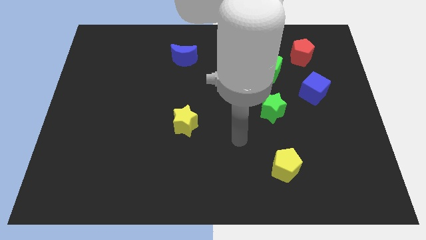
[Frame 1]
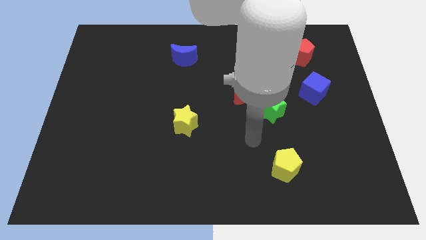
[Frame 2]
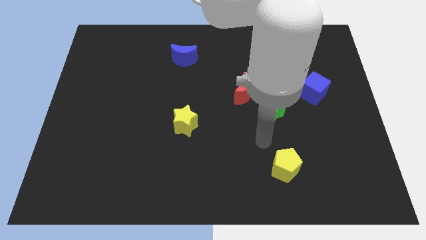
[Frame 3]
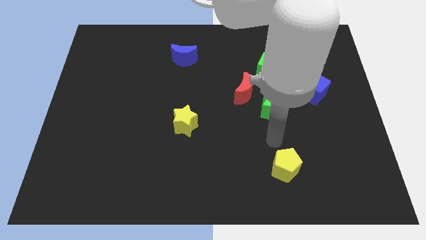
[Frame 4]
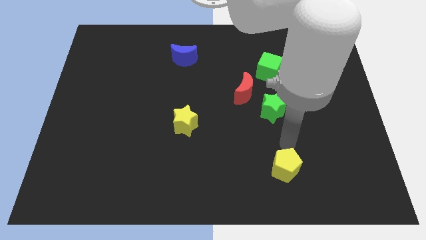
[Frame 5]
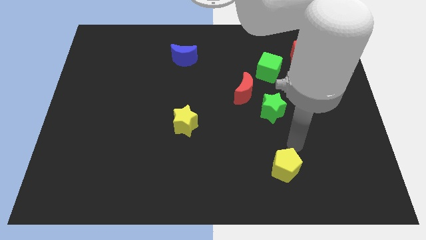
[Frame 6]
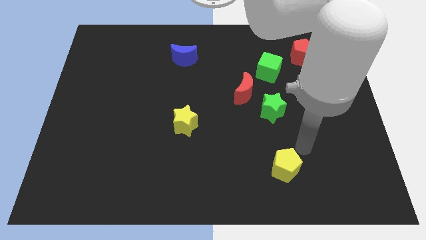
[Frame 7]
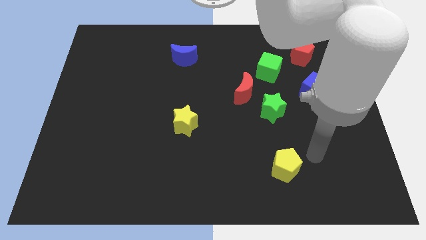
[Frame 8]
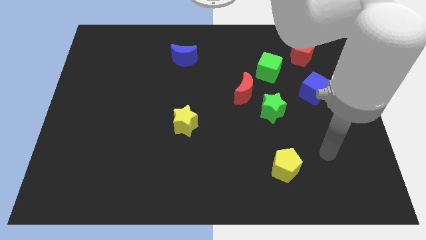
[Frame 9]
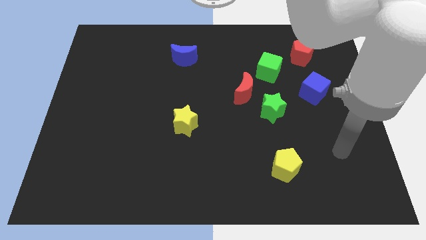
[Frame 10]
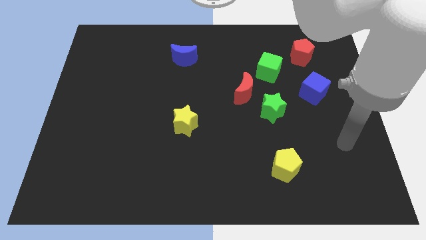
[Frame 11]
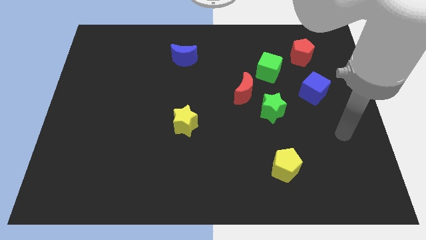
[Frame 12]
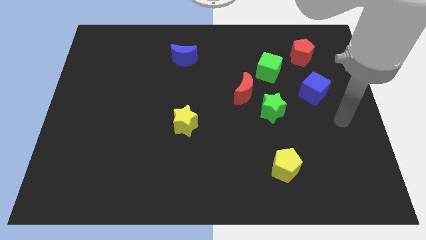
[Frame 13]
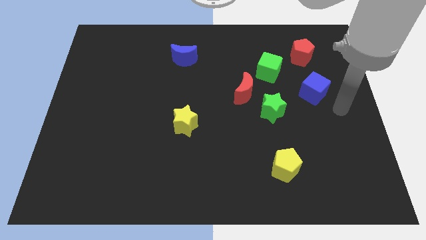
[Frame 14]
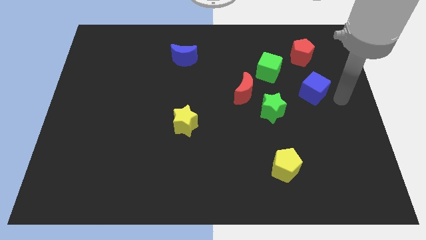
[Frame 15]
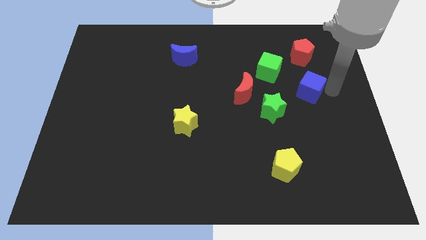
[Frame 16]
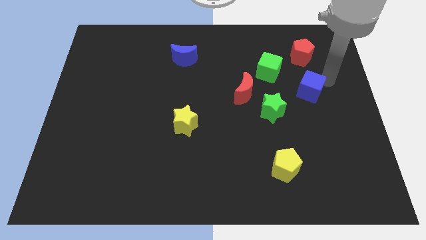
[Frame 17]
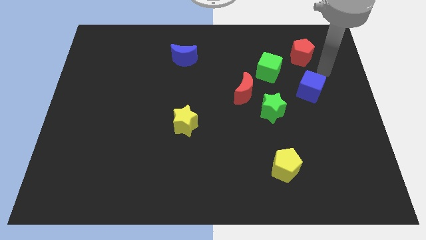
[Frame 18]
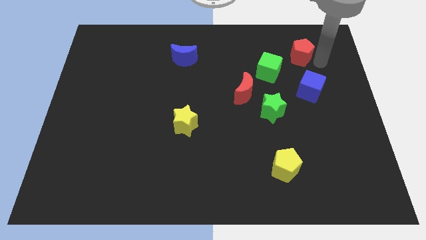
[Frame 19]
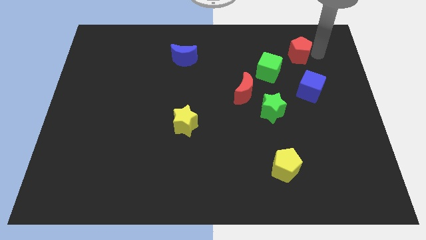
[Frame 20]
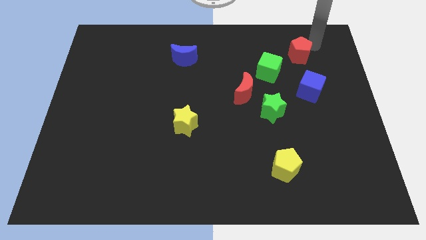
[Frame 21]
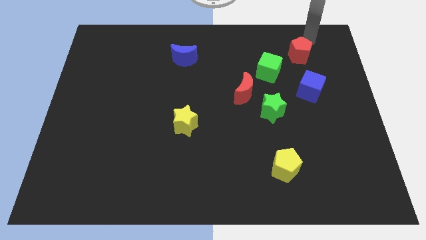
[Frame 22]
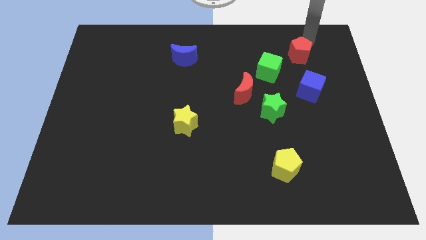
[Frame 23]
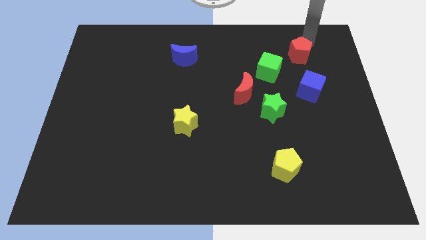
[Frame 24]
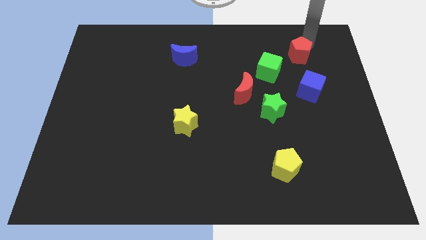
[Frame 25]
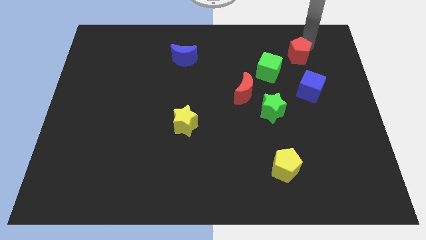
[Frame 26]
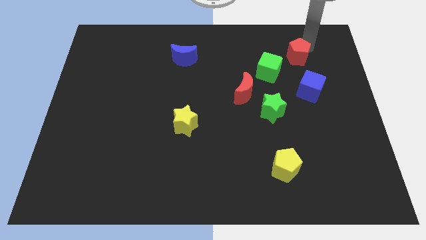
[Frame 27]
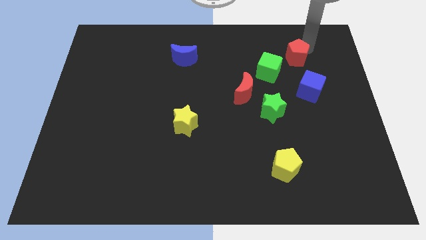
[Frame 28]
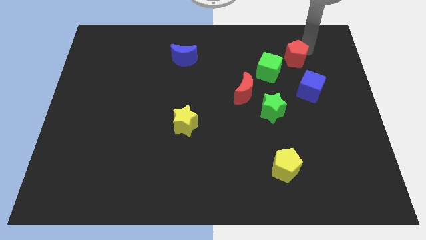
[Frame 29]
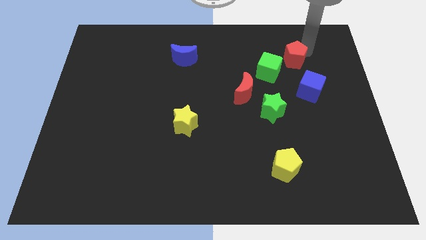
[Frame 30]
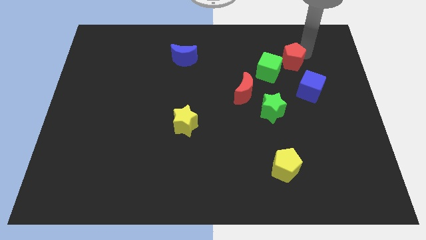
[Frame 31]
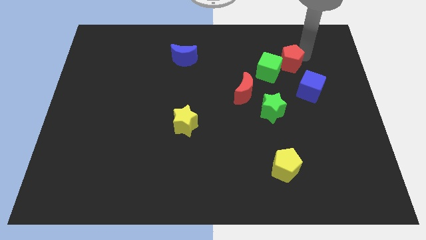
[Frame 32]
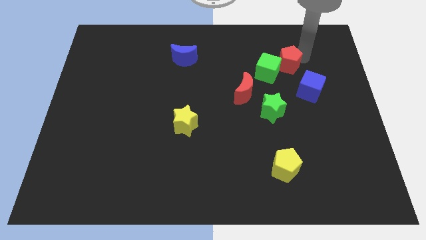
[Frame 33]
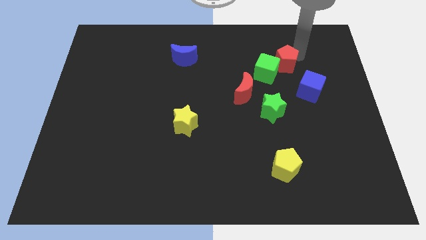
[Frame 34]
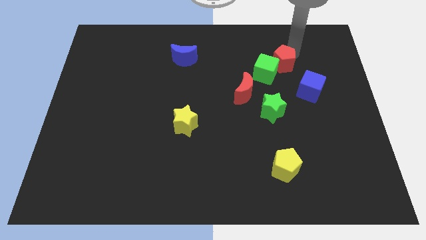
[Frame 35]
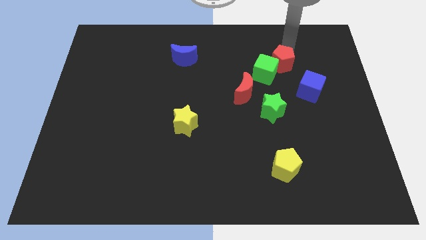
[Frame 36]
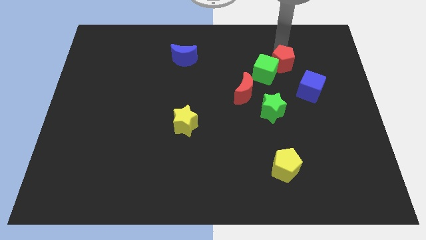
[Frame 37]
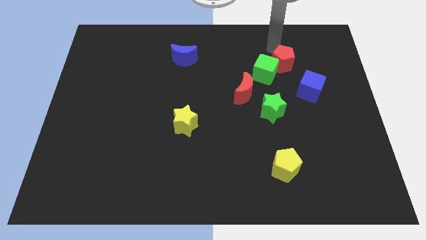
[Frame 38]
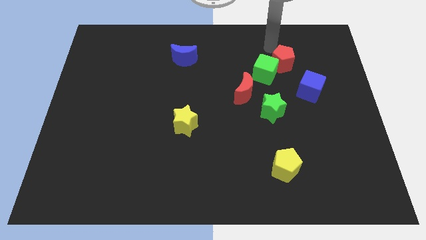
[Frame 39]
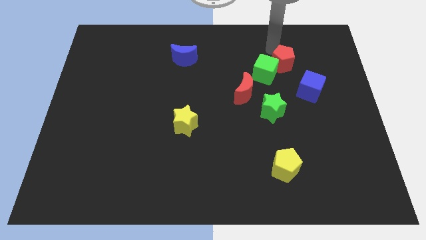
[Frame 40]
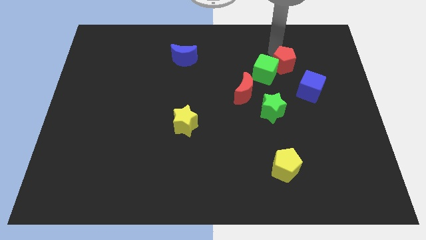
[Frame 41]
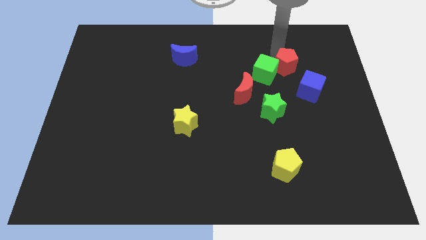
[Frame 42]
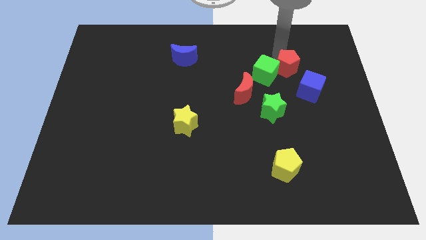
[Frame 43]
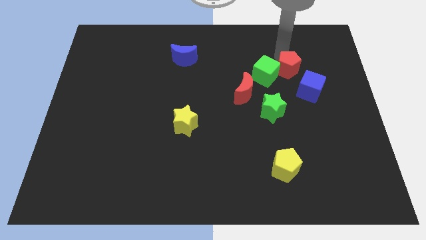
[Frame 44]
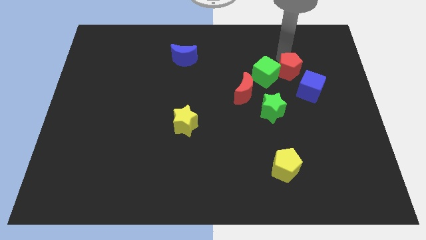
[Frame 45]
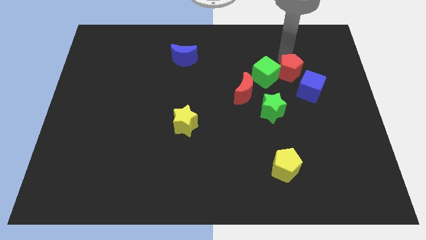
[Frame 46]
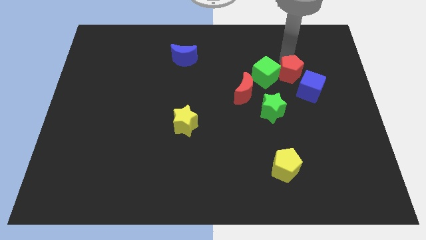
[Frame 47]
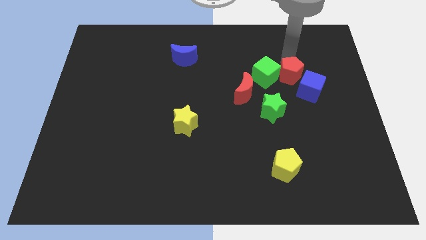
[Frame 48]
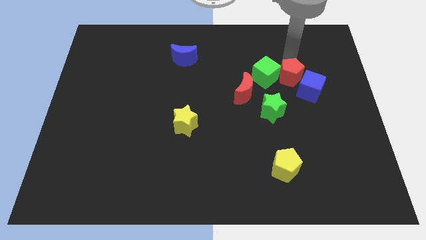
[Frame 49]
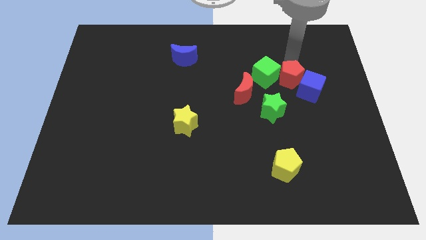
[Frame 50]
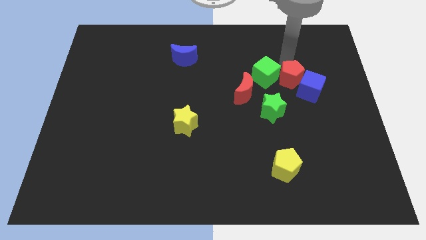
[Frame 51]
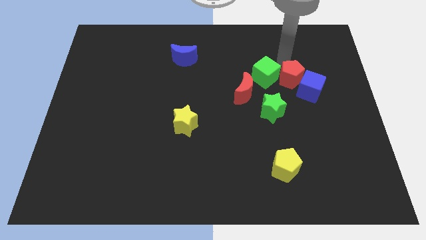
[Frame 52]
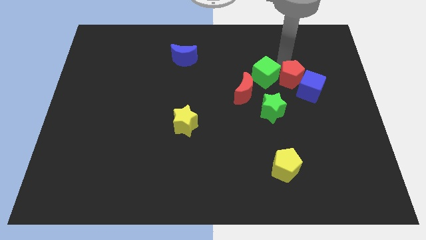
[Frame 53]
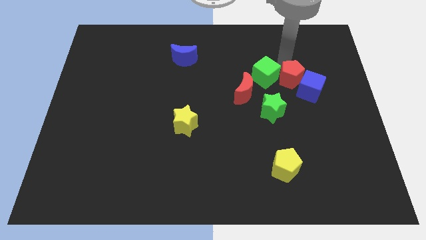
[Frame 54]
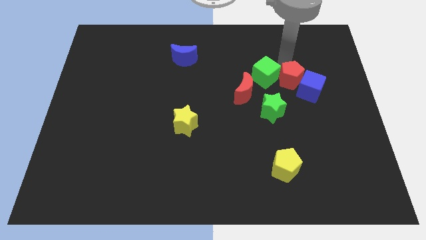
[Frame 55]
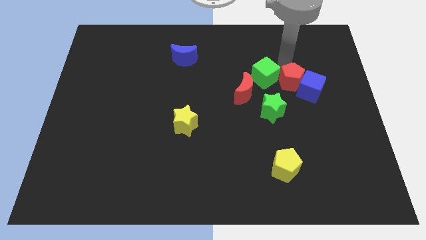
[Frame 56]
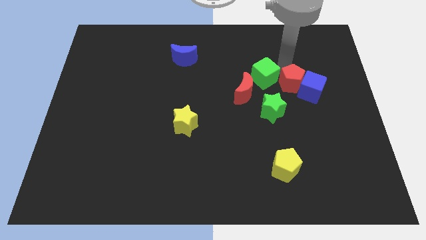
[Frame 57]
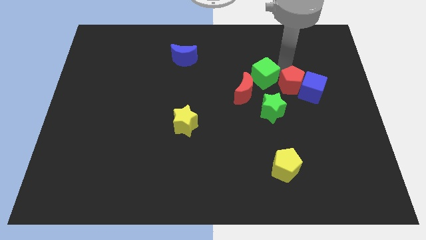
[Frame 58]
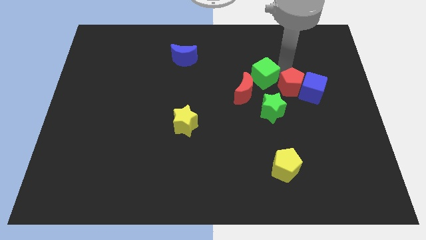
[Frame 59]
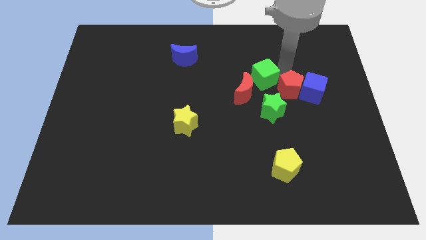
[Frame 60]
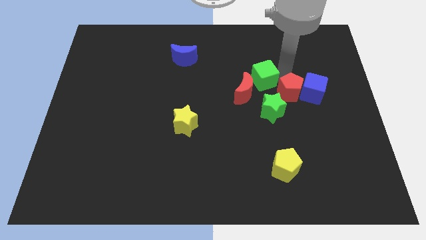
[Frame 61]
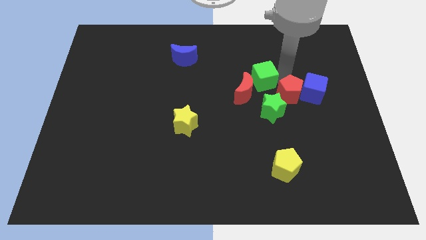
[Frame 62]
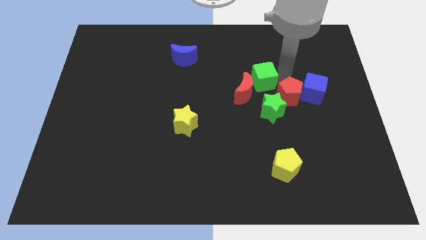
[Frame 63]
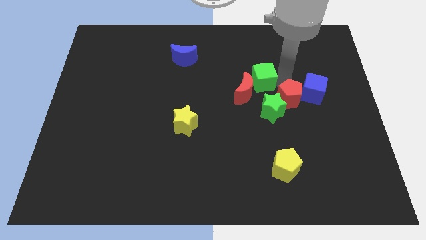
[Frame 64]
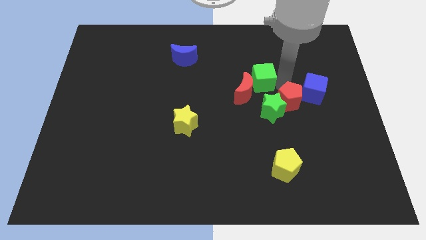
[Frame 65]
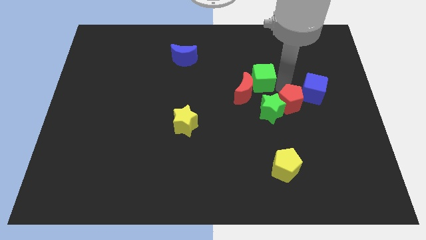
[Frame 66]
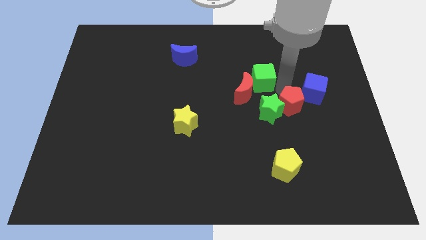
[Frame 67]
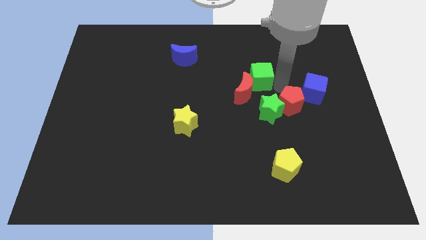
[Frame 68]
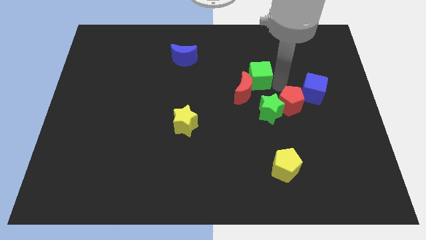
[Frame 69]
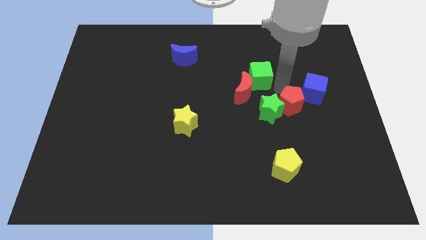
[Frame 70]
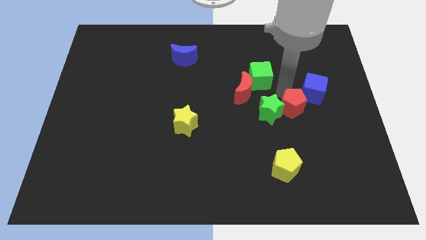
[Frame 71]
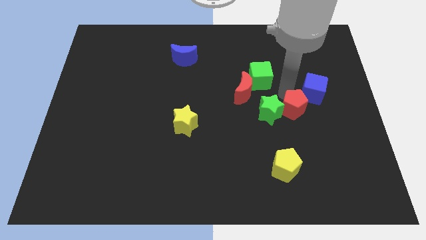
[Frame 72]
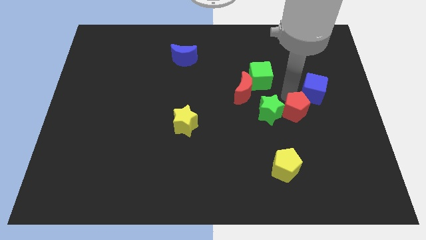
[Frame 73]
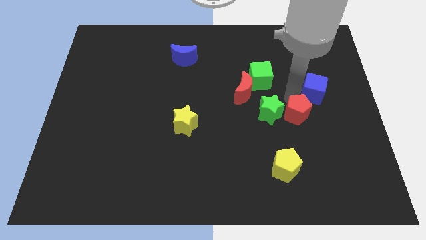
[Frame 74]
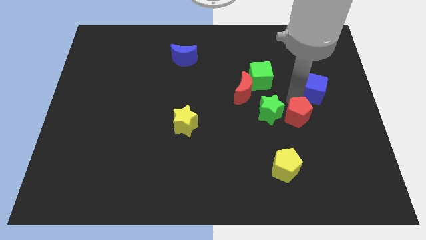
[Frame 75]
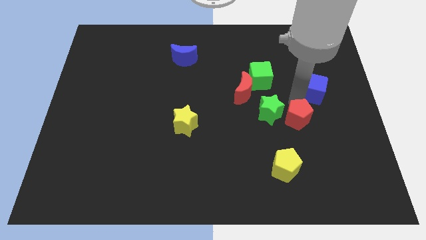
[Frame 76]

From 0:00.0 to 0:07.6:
push the red pentagon downwards

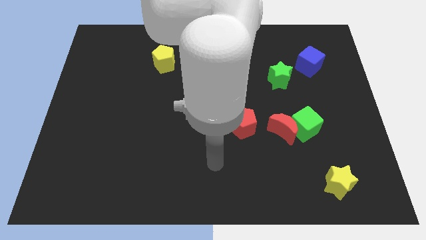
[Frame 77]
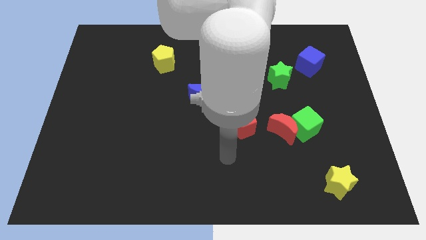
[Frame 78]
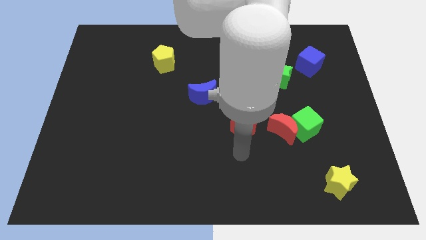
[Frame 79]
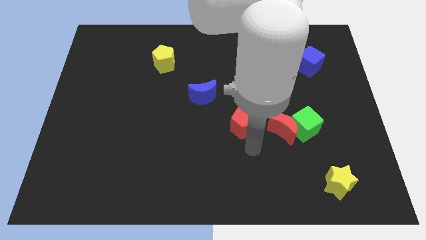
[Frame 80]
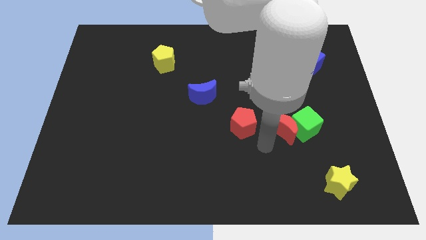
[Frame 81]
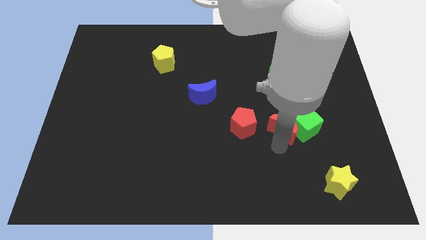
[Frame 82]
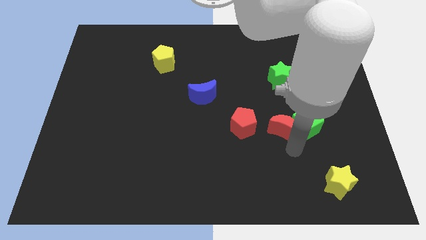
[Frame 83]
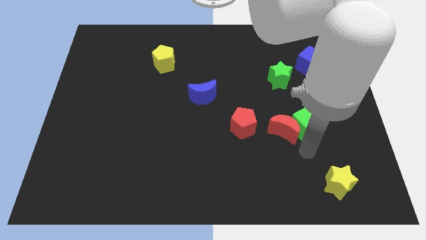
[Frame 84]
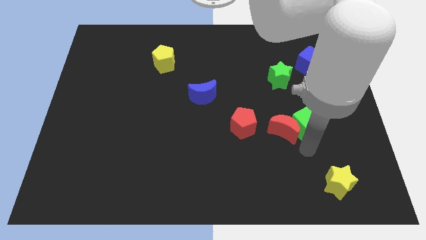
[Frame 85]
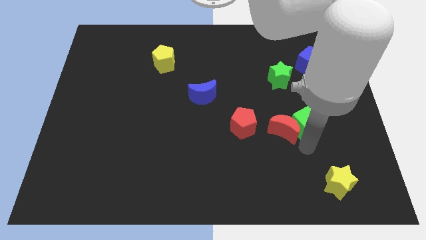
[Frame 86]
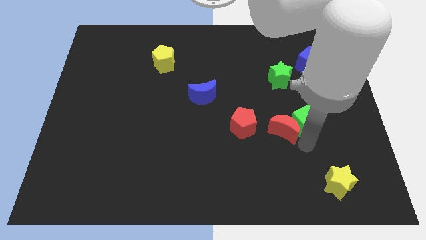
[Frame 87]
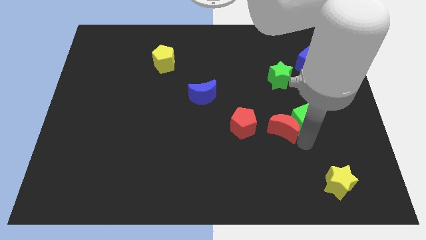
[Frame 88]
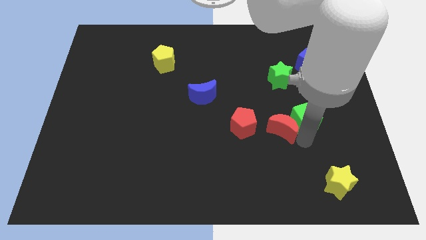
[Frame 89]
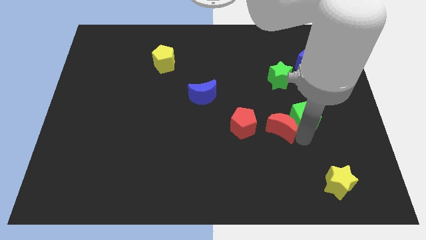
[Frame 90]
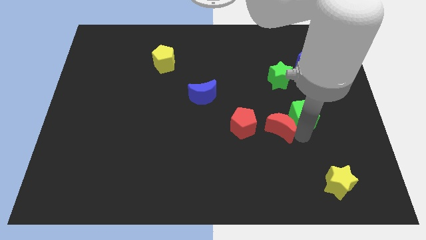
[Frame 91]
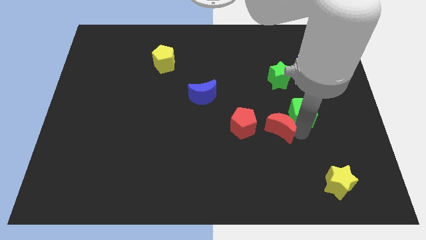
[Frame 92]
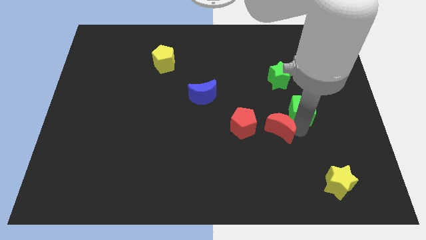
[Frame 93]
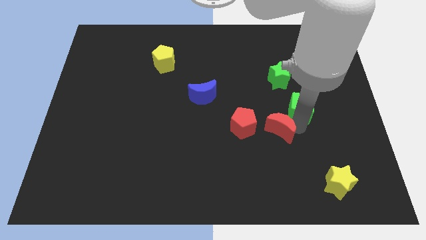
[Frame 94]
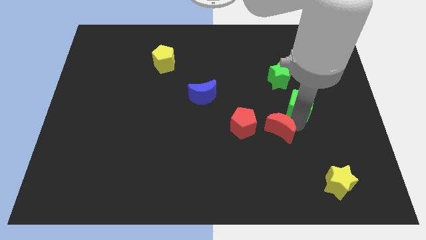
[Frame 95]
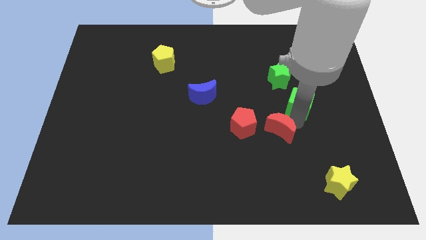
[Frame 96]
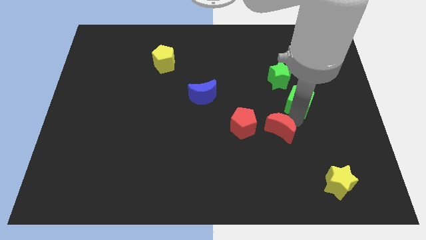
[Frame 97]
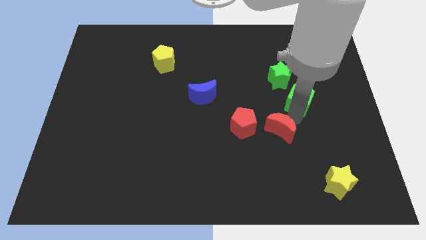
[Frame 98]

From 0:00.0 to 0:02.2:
move the green cube upwards somewhat
